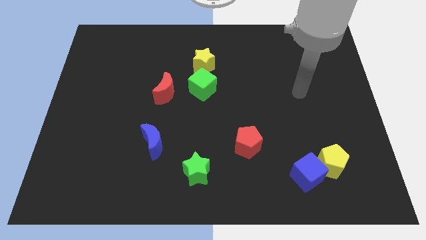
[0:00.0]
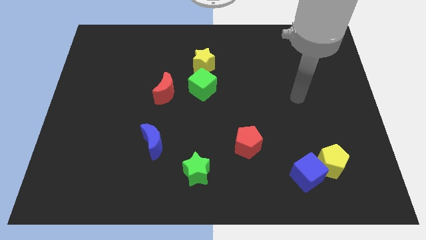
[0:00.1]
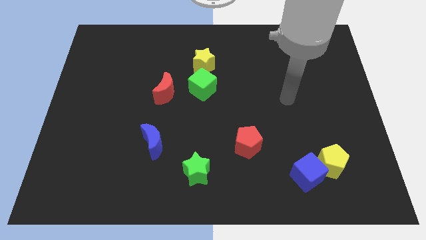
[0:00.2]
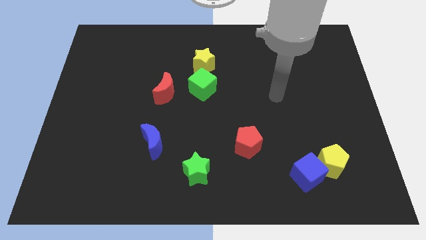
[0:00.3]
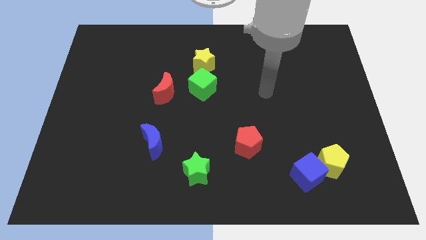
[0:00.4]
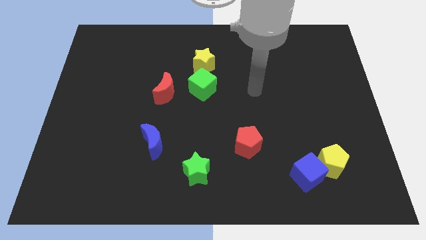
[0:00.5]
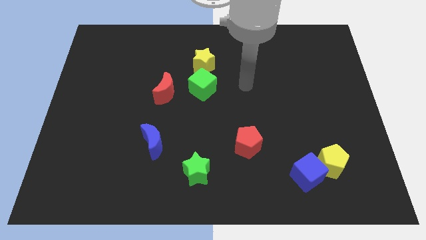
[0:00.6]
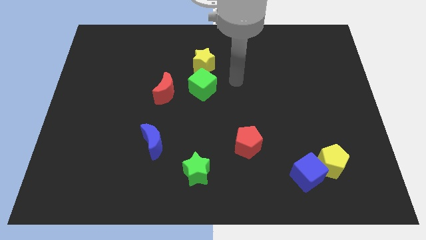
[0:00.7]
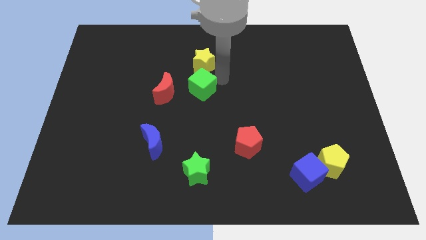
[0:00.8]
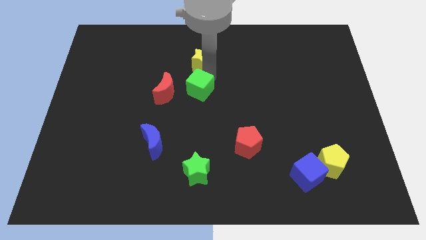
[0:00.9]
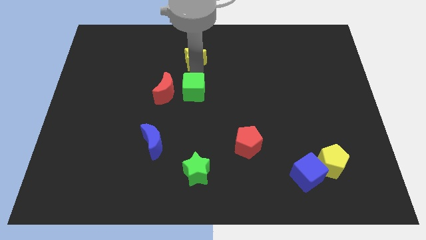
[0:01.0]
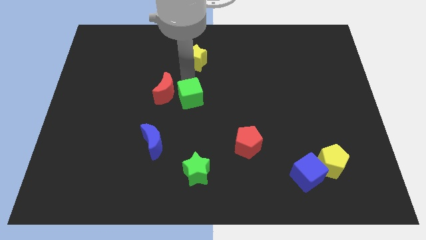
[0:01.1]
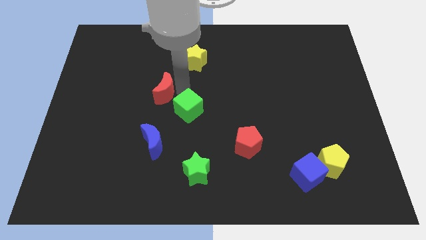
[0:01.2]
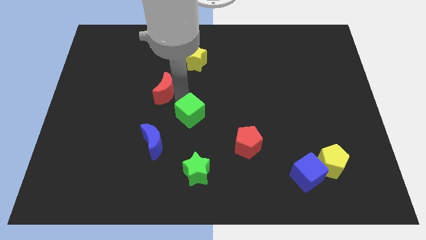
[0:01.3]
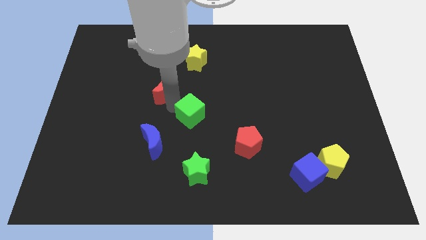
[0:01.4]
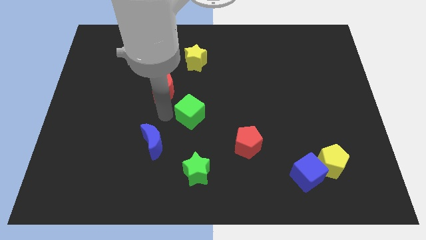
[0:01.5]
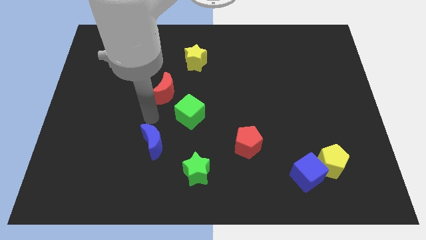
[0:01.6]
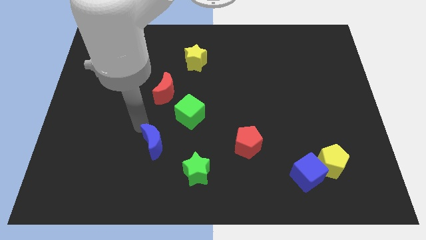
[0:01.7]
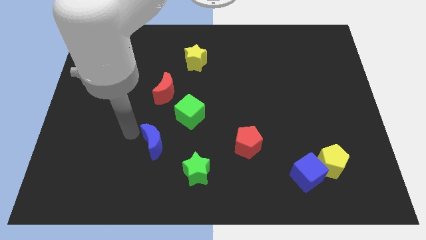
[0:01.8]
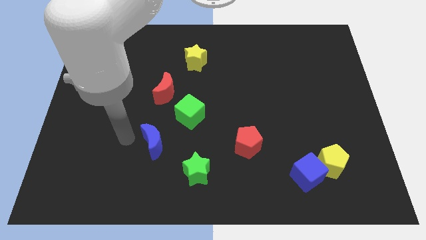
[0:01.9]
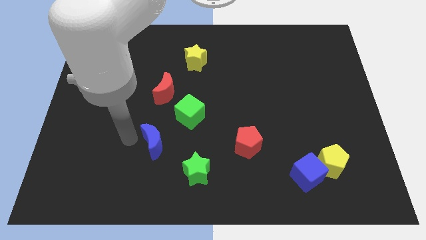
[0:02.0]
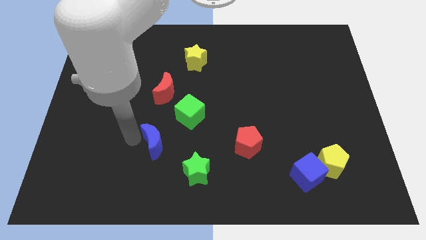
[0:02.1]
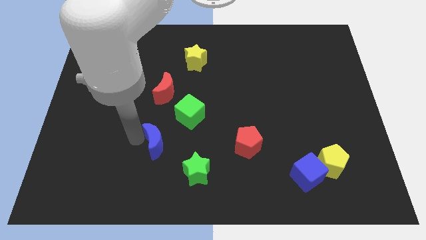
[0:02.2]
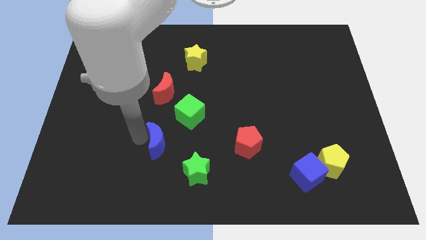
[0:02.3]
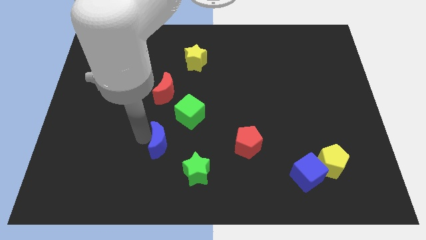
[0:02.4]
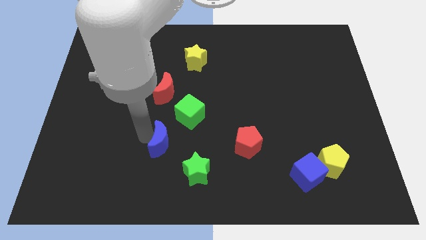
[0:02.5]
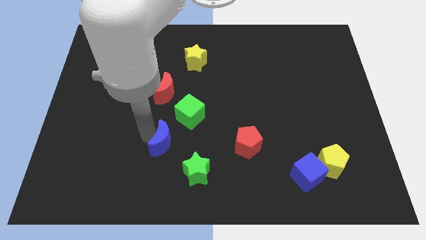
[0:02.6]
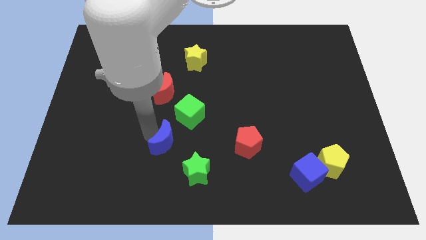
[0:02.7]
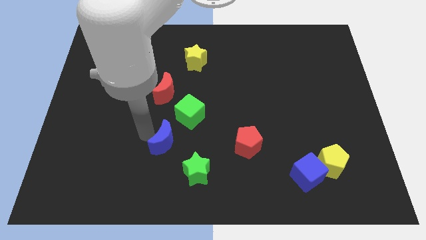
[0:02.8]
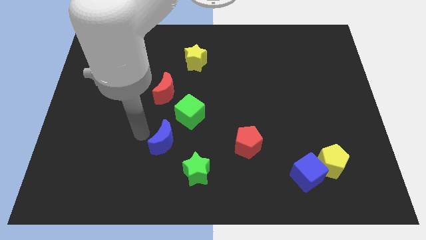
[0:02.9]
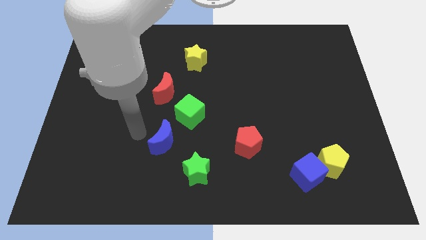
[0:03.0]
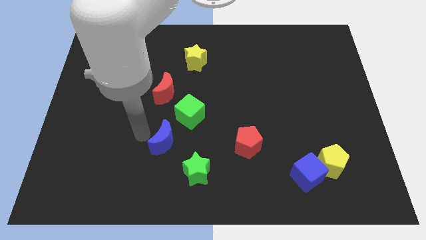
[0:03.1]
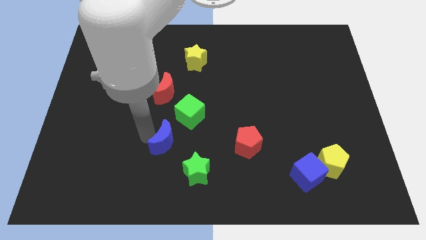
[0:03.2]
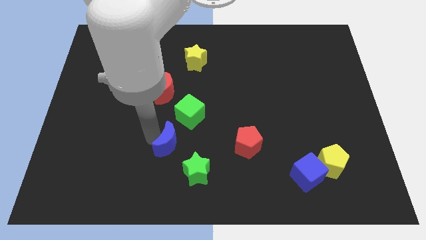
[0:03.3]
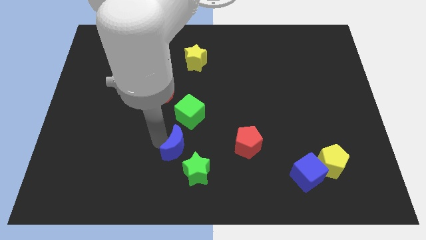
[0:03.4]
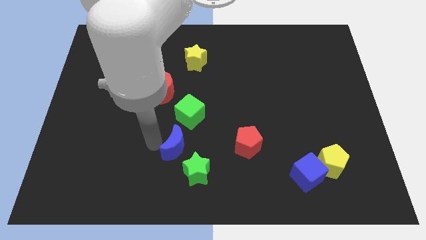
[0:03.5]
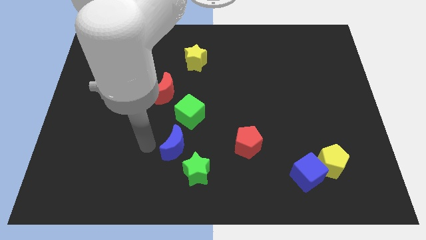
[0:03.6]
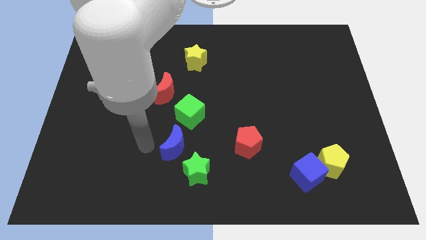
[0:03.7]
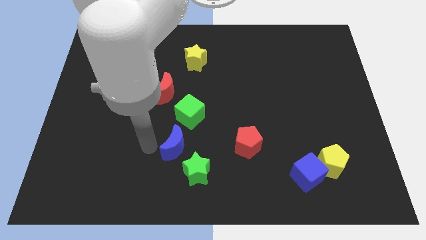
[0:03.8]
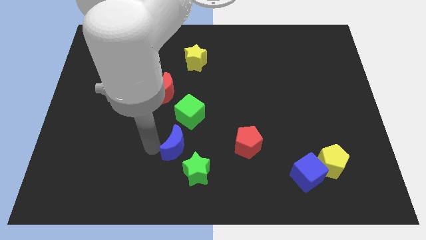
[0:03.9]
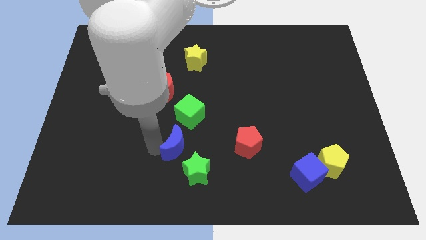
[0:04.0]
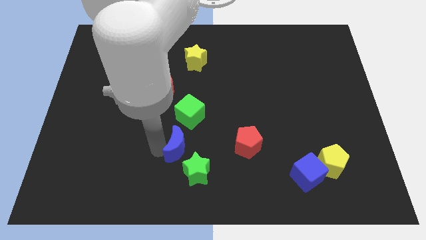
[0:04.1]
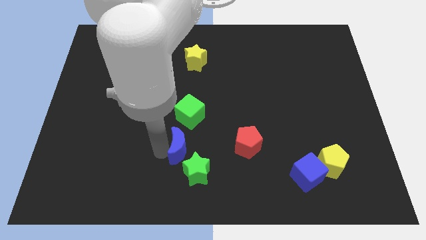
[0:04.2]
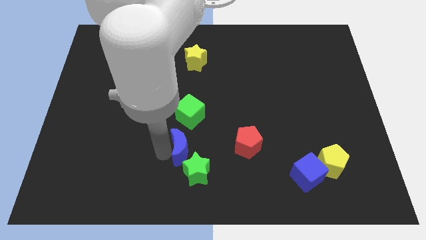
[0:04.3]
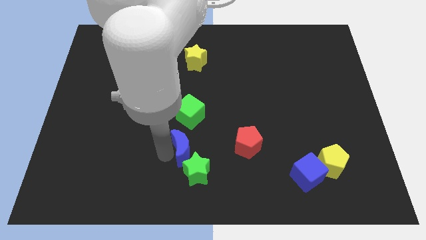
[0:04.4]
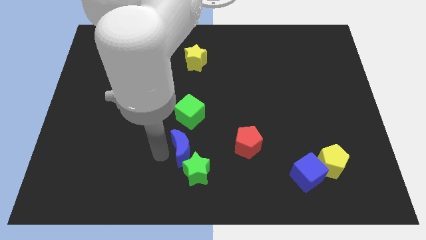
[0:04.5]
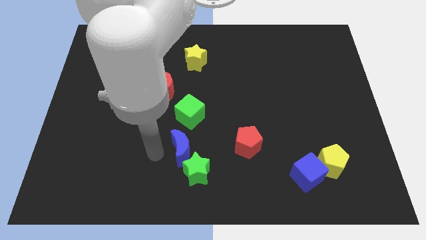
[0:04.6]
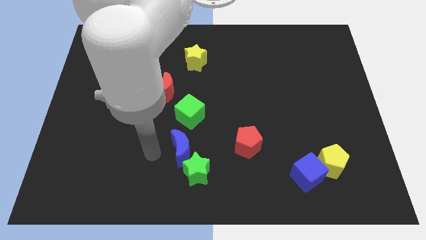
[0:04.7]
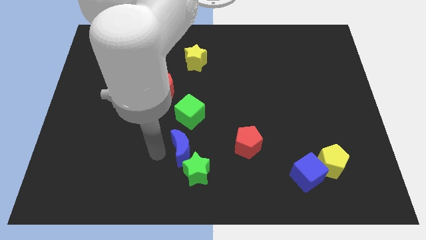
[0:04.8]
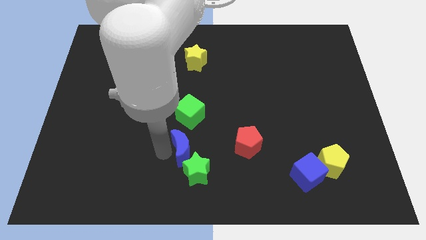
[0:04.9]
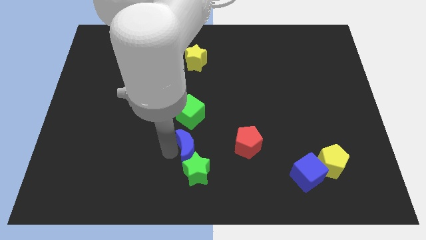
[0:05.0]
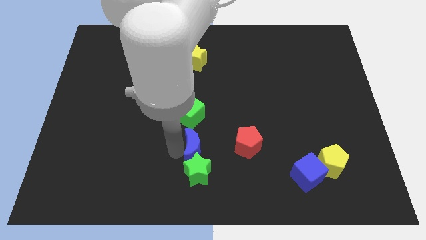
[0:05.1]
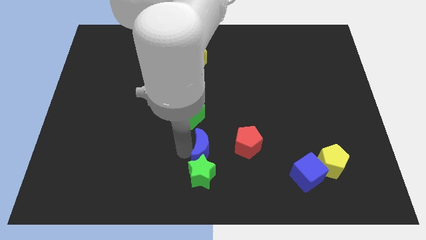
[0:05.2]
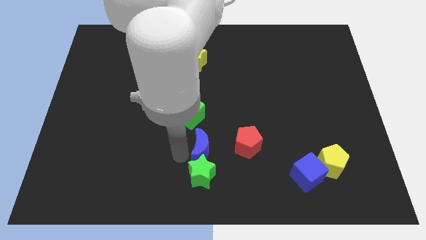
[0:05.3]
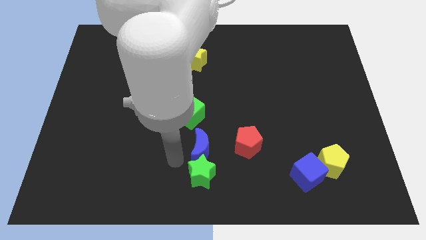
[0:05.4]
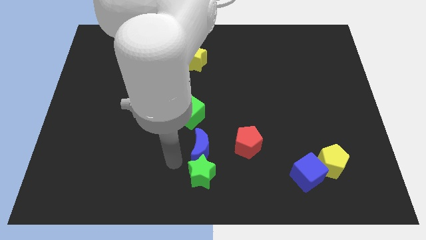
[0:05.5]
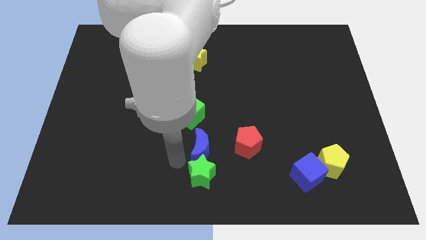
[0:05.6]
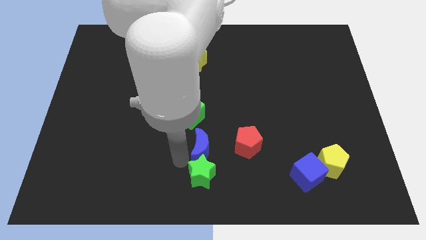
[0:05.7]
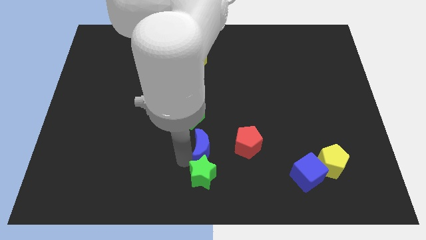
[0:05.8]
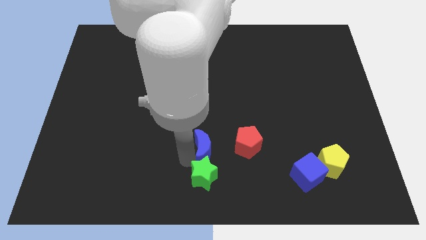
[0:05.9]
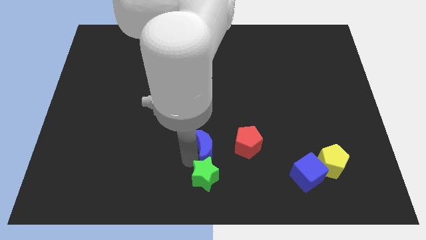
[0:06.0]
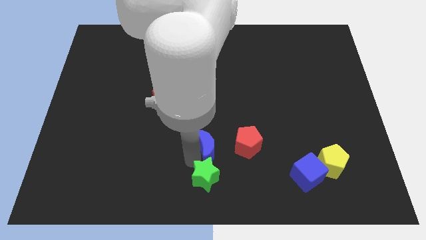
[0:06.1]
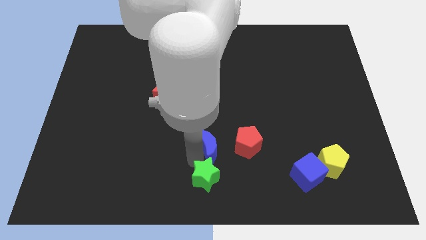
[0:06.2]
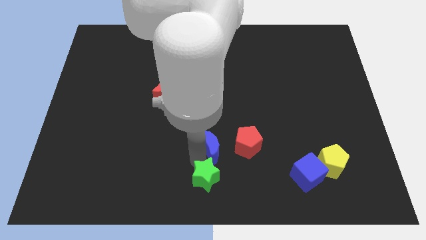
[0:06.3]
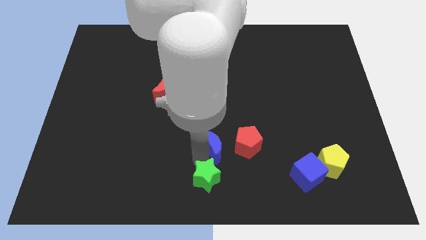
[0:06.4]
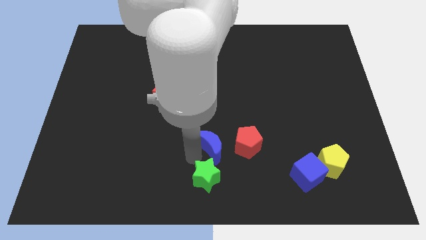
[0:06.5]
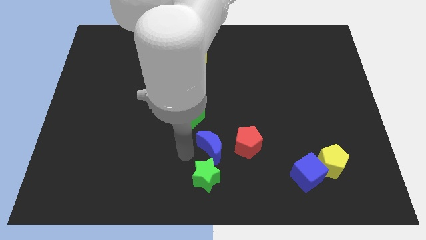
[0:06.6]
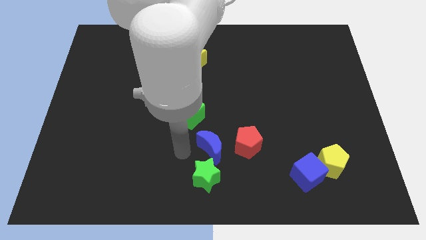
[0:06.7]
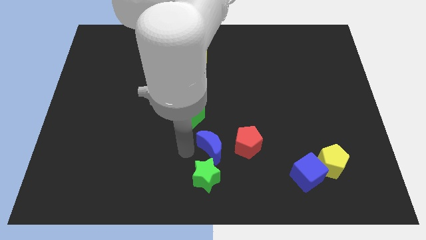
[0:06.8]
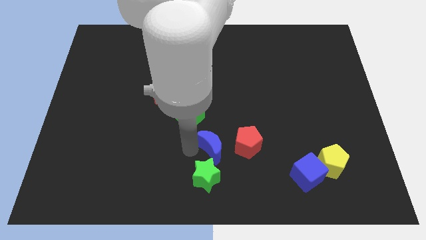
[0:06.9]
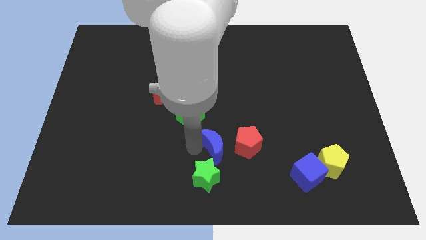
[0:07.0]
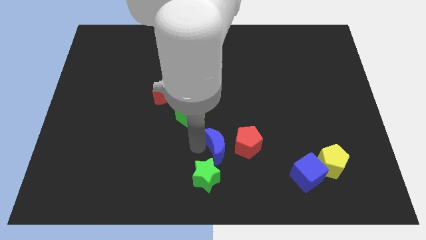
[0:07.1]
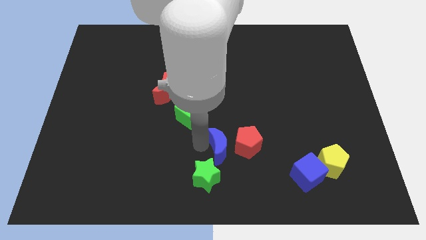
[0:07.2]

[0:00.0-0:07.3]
push the blue moon next to the red pentagon

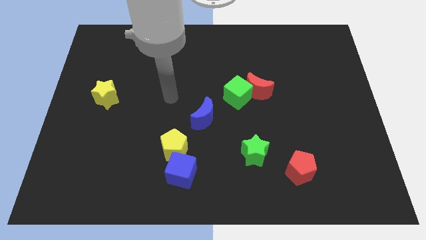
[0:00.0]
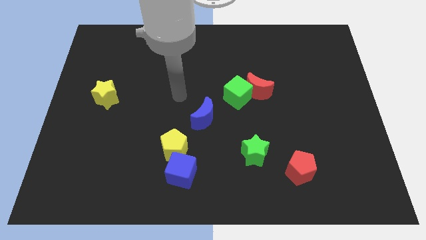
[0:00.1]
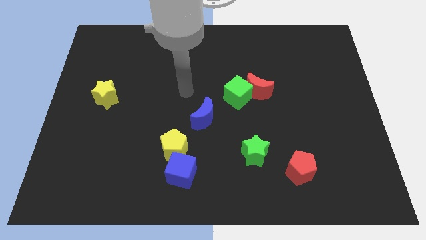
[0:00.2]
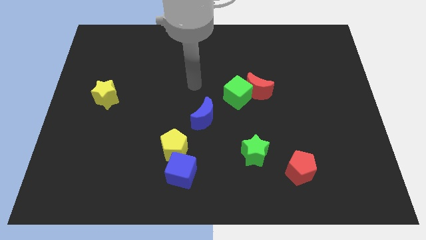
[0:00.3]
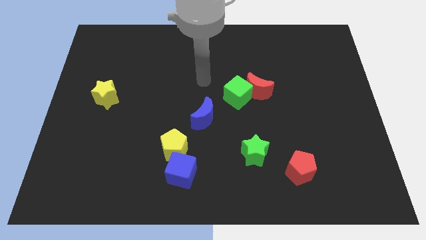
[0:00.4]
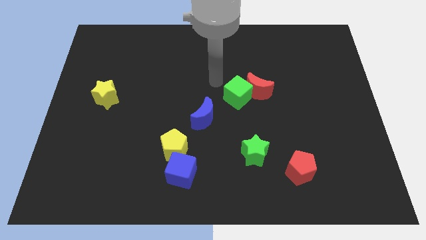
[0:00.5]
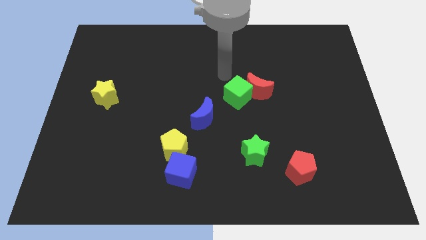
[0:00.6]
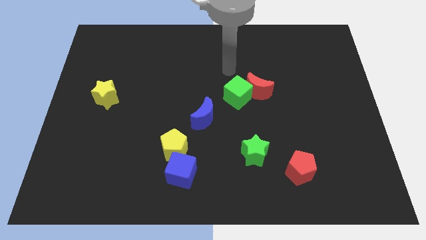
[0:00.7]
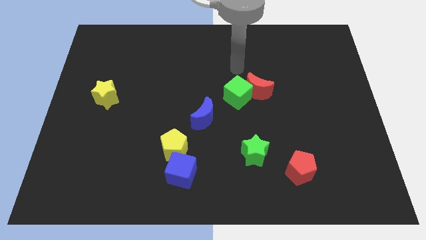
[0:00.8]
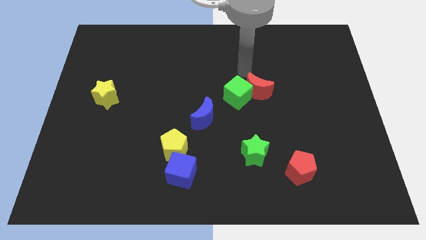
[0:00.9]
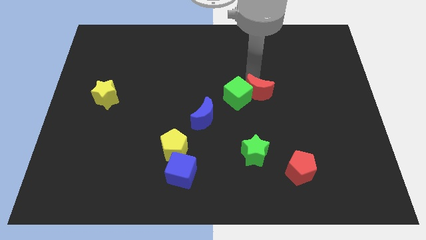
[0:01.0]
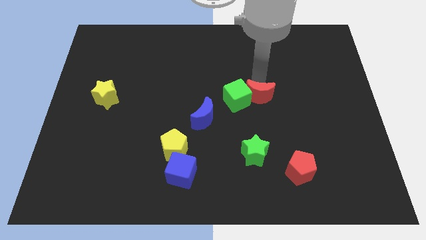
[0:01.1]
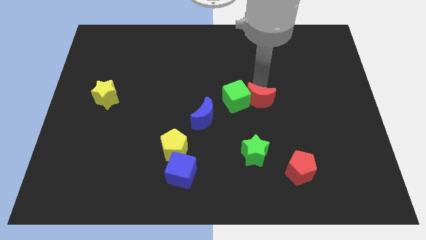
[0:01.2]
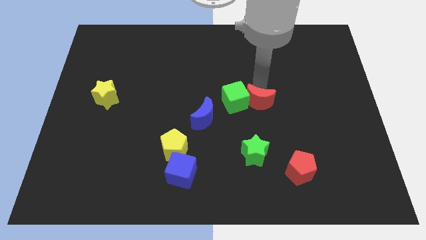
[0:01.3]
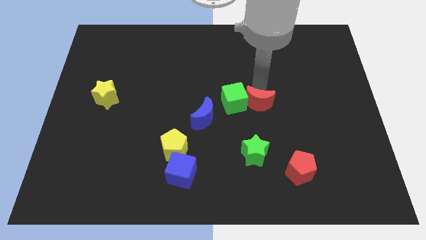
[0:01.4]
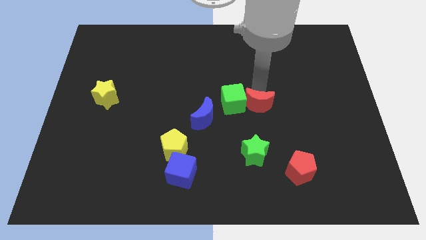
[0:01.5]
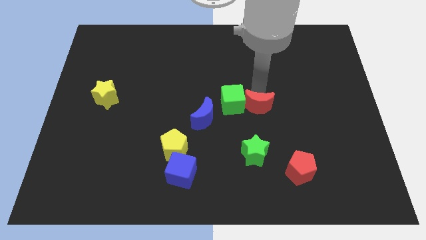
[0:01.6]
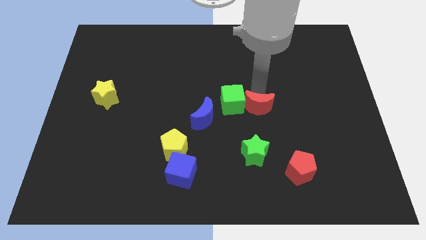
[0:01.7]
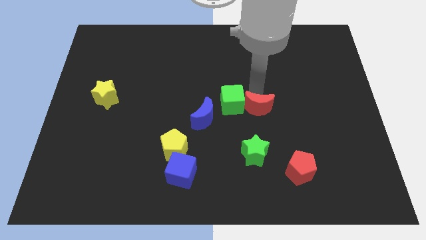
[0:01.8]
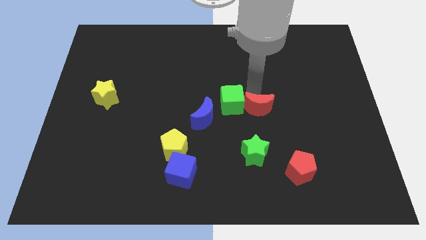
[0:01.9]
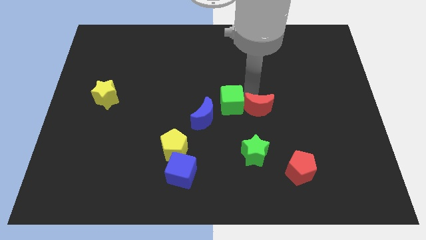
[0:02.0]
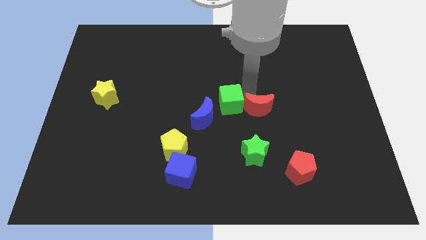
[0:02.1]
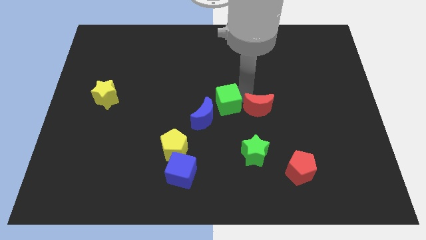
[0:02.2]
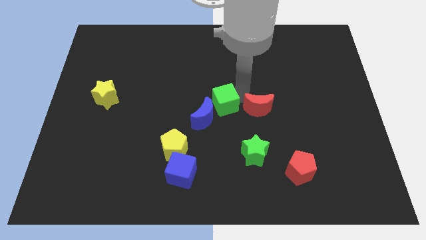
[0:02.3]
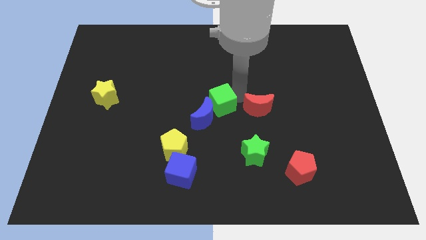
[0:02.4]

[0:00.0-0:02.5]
push the green cube towards the blue moon
